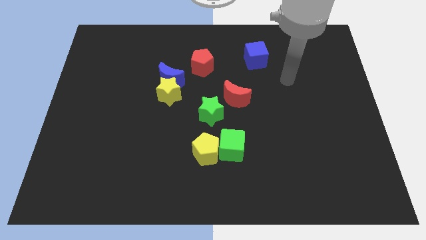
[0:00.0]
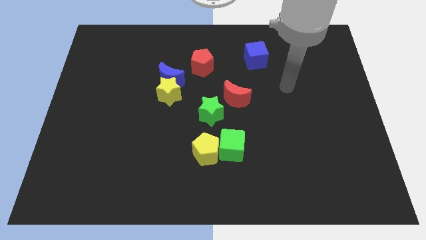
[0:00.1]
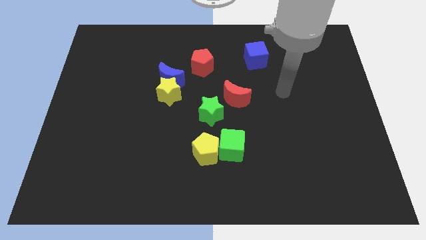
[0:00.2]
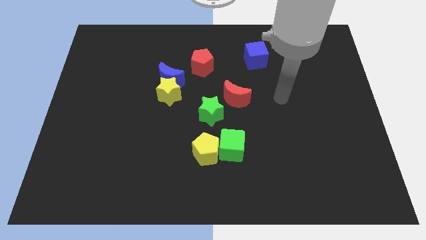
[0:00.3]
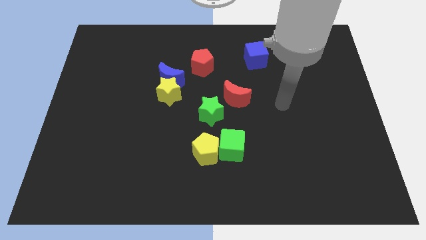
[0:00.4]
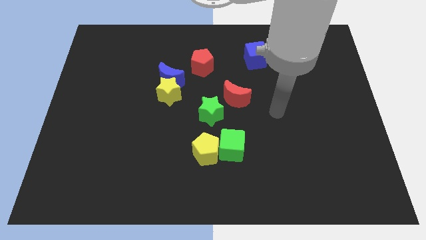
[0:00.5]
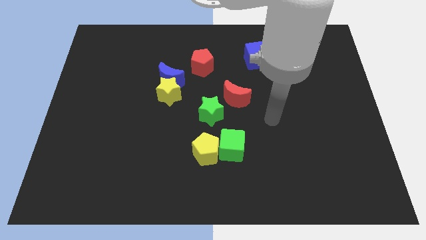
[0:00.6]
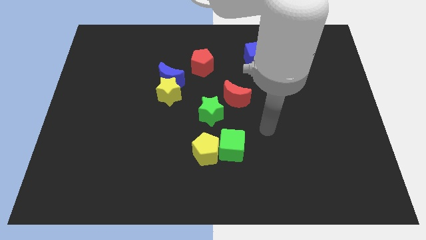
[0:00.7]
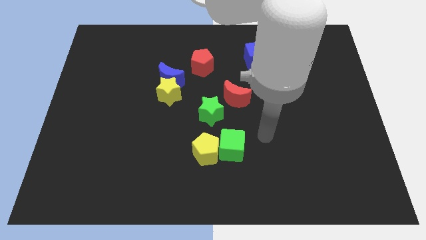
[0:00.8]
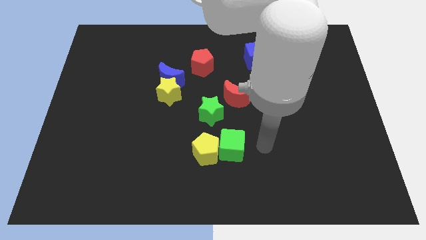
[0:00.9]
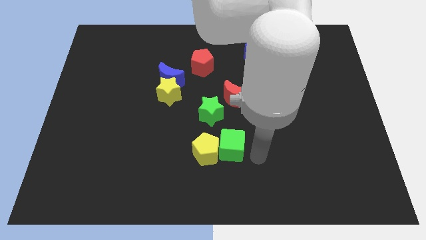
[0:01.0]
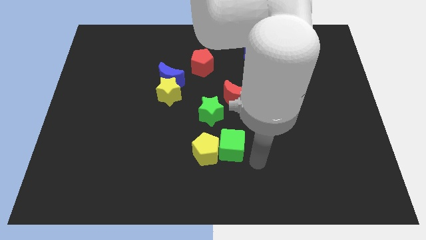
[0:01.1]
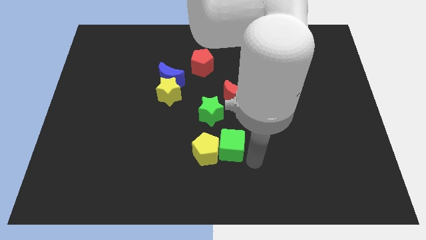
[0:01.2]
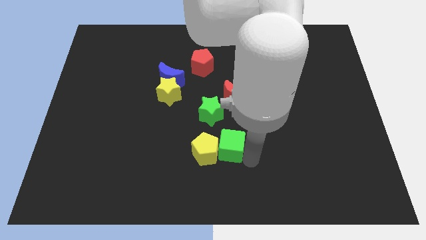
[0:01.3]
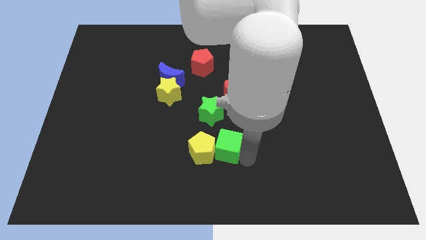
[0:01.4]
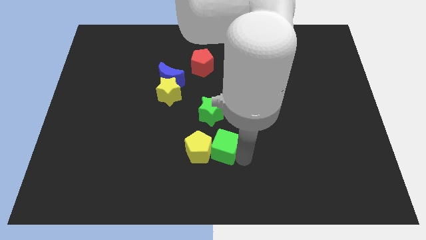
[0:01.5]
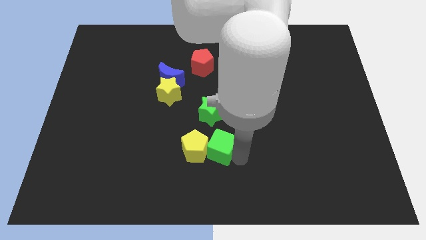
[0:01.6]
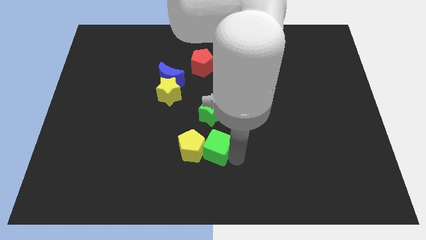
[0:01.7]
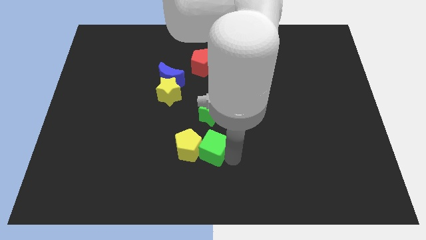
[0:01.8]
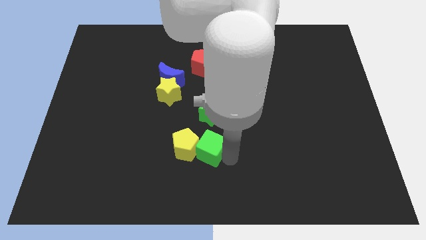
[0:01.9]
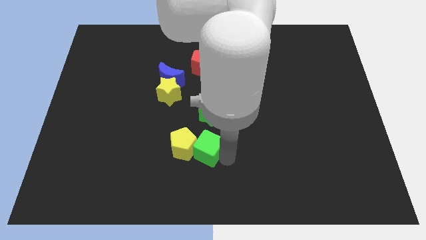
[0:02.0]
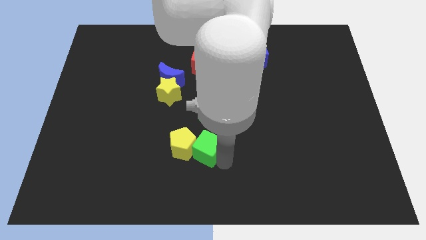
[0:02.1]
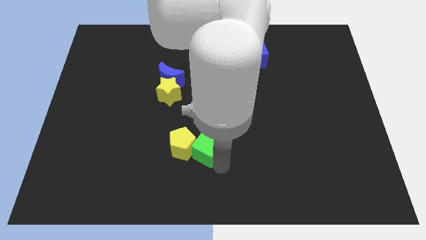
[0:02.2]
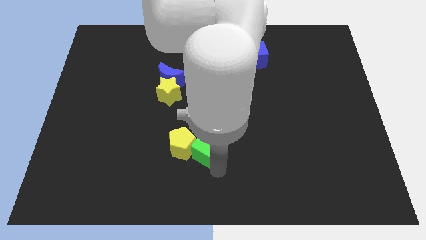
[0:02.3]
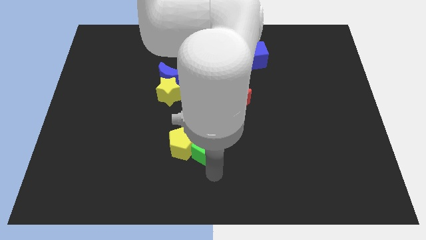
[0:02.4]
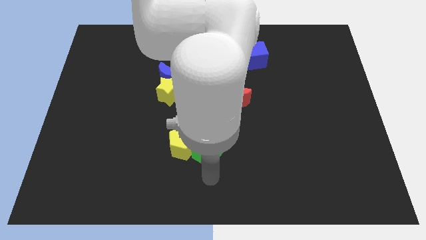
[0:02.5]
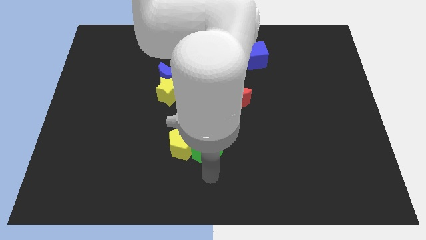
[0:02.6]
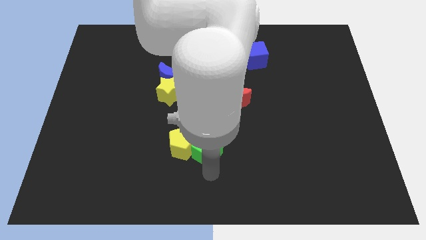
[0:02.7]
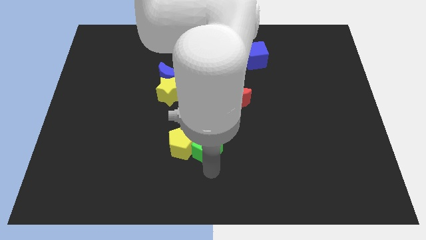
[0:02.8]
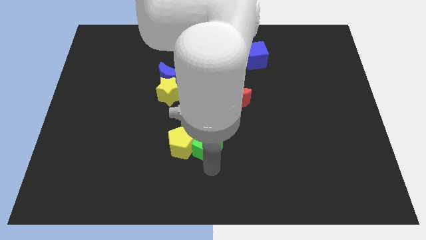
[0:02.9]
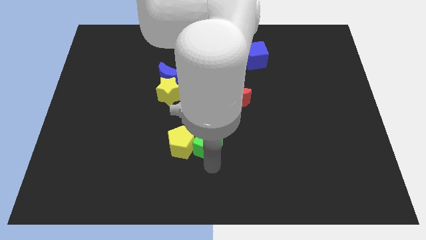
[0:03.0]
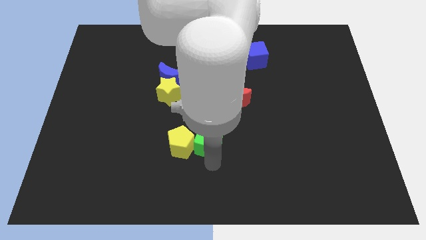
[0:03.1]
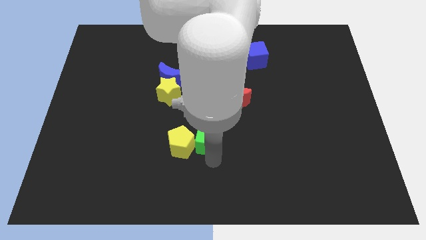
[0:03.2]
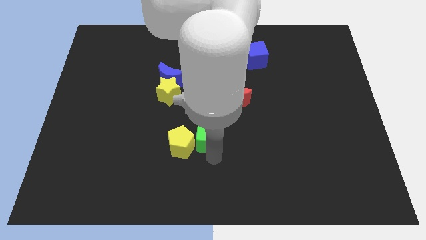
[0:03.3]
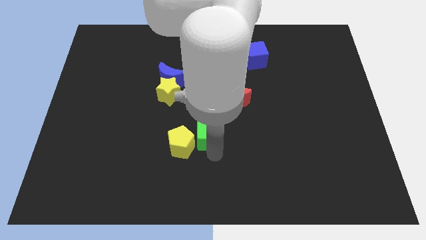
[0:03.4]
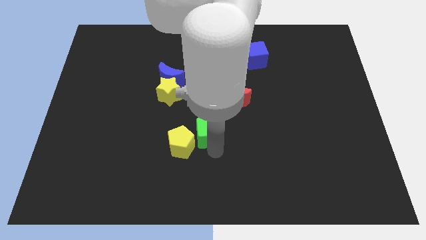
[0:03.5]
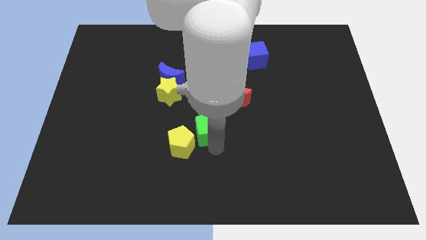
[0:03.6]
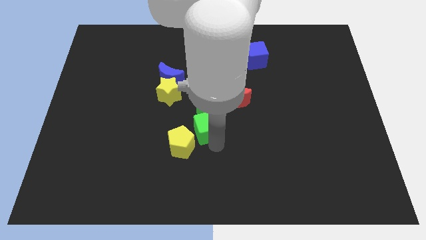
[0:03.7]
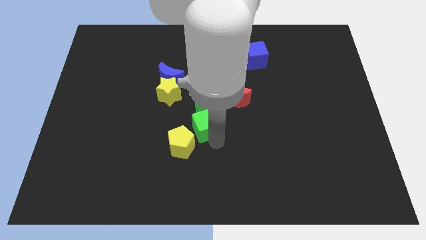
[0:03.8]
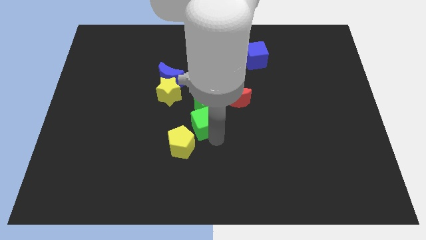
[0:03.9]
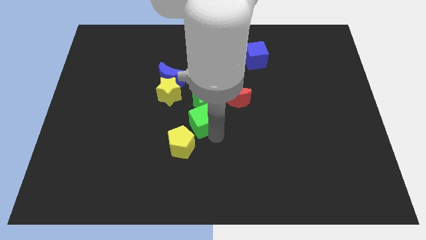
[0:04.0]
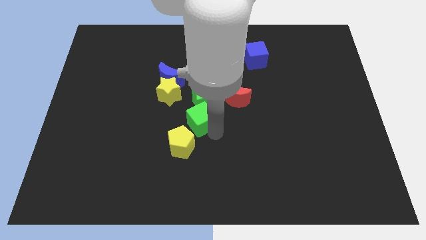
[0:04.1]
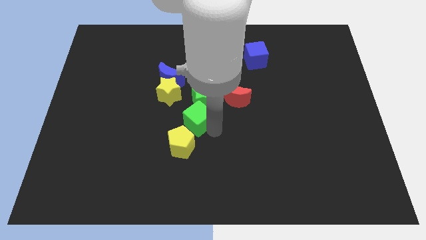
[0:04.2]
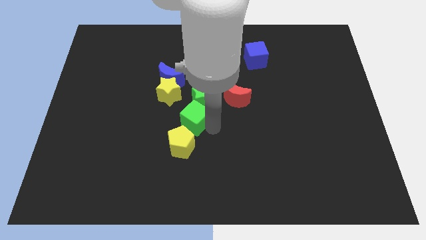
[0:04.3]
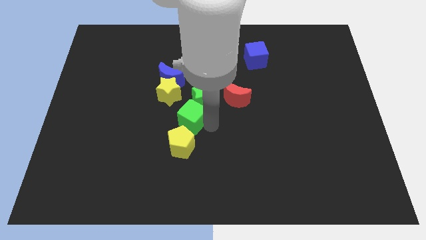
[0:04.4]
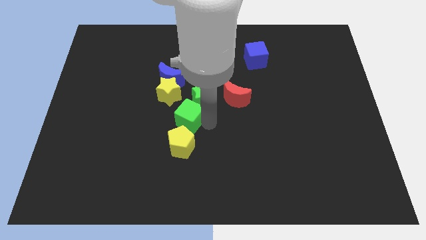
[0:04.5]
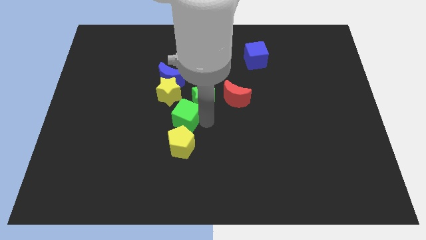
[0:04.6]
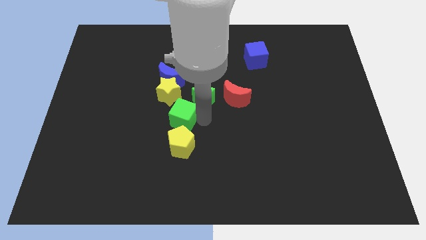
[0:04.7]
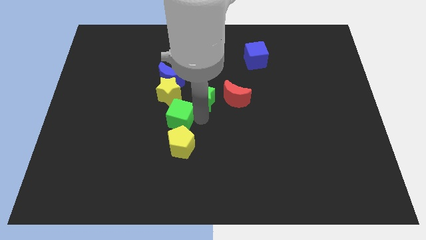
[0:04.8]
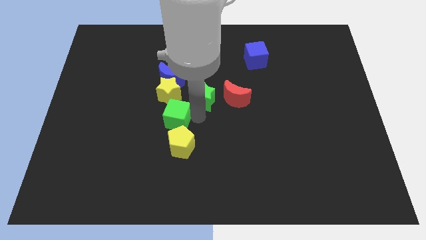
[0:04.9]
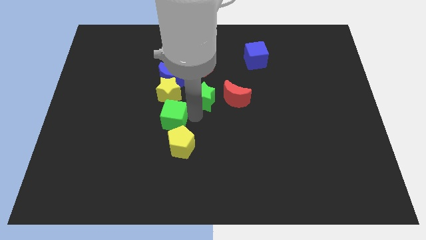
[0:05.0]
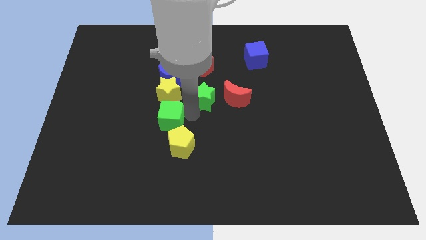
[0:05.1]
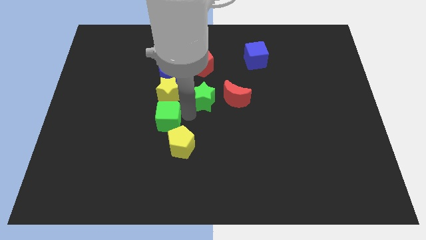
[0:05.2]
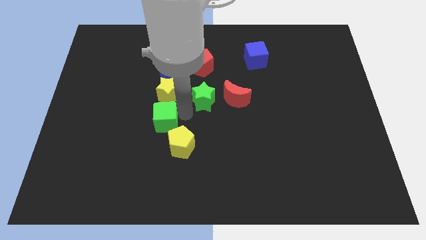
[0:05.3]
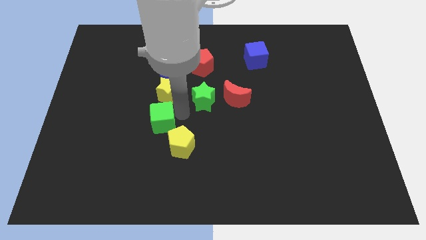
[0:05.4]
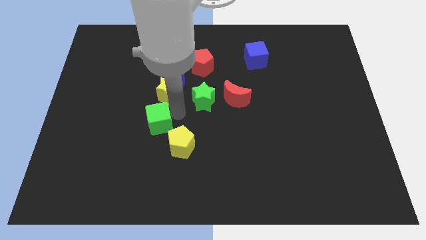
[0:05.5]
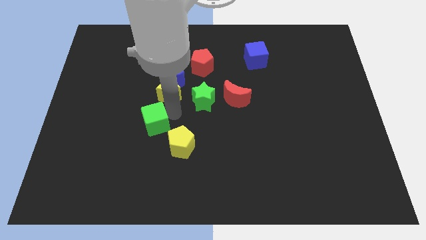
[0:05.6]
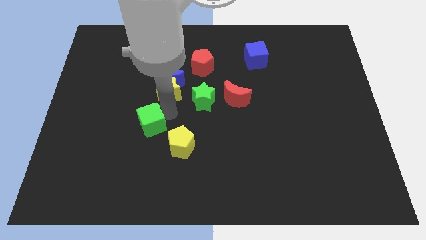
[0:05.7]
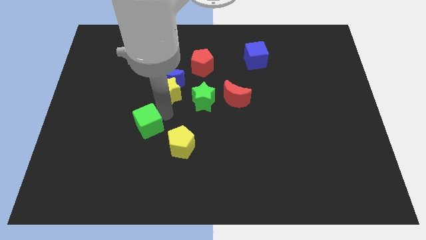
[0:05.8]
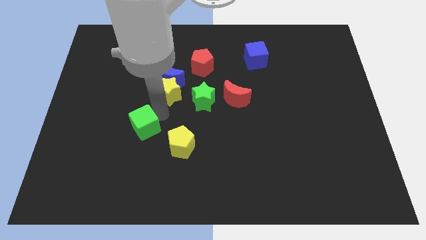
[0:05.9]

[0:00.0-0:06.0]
put the green cube to the left side of the yellow pentagon

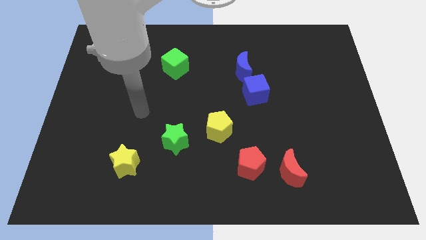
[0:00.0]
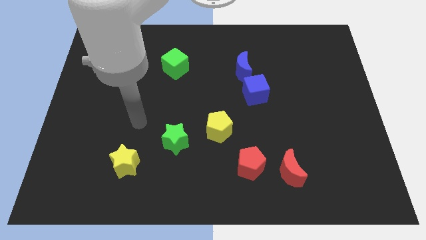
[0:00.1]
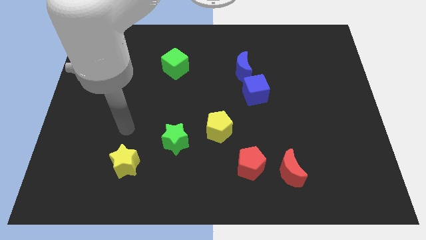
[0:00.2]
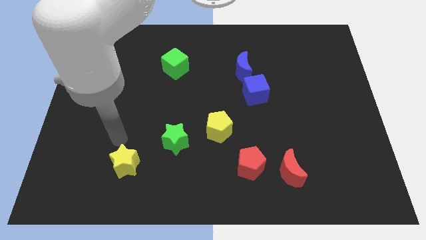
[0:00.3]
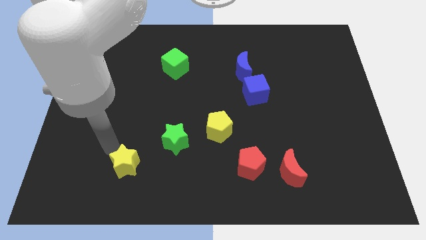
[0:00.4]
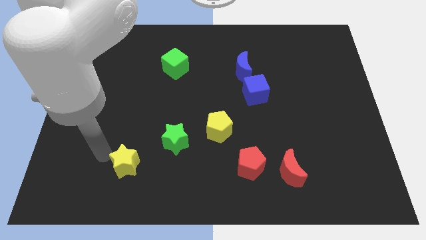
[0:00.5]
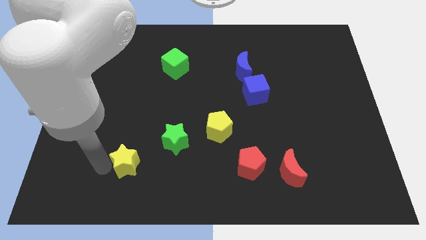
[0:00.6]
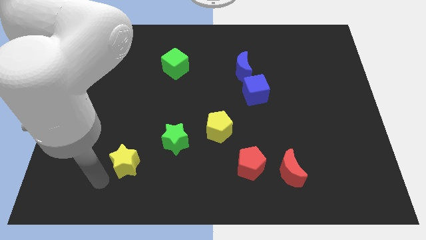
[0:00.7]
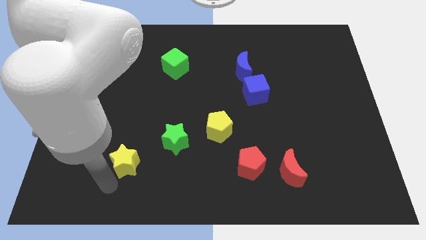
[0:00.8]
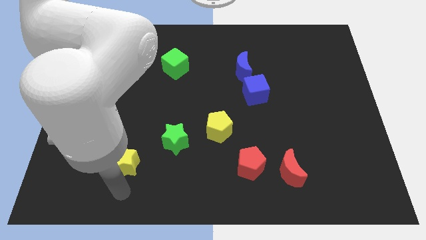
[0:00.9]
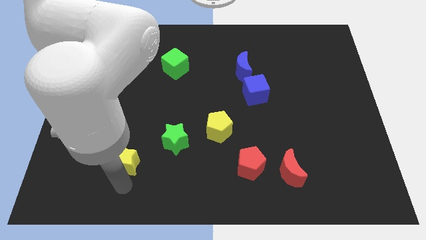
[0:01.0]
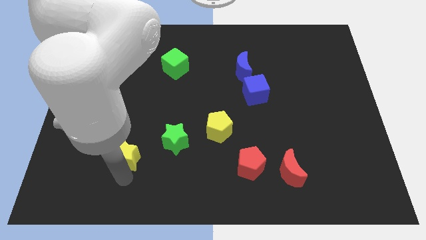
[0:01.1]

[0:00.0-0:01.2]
slide the yellow star just left of the green star

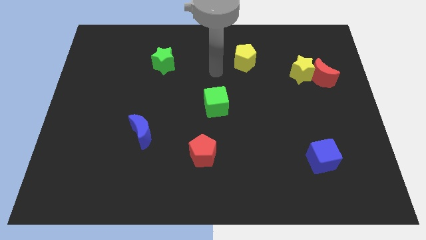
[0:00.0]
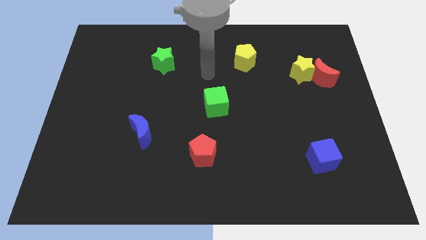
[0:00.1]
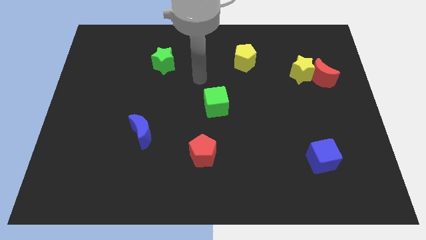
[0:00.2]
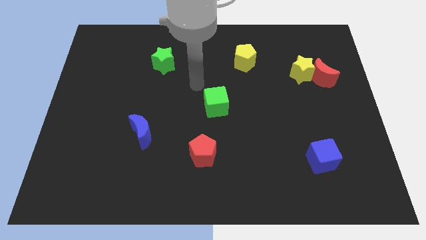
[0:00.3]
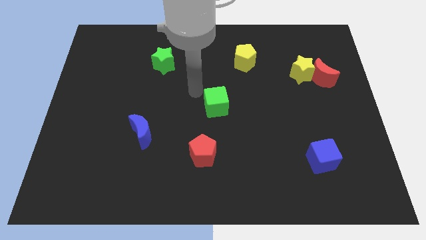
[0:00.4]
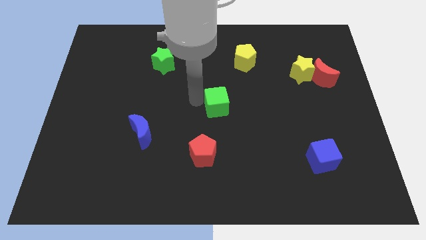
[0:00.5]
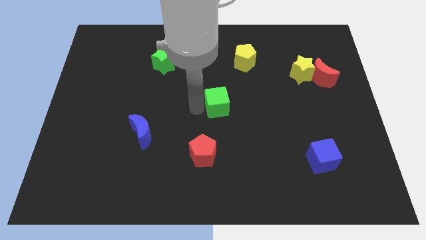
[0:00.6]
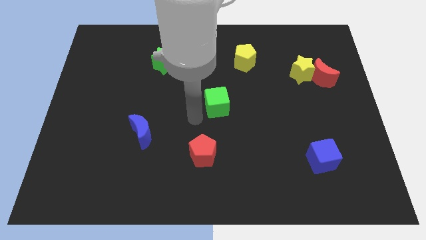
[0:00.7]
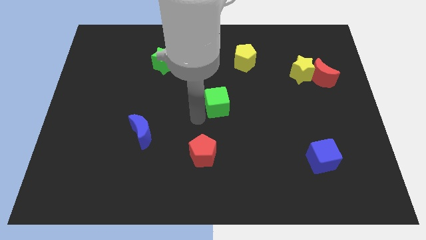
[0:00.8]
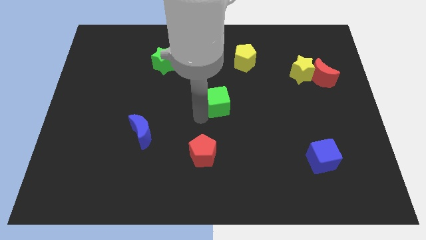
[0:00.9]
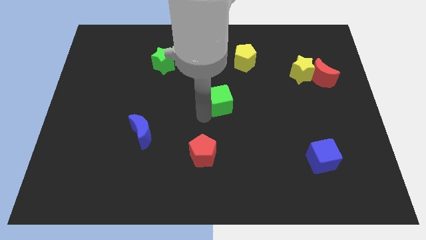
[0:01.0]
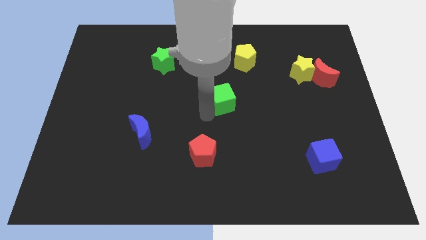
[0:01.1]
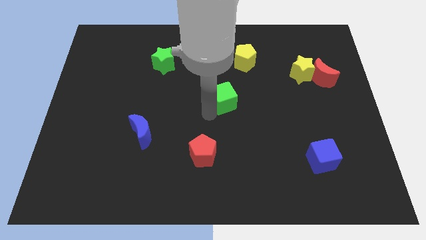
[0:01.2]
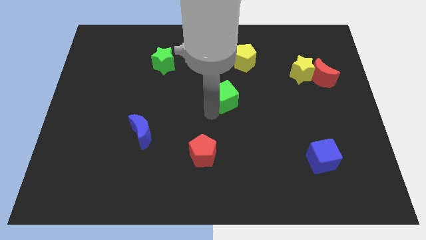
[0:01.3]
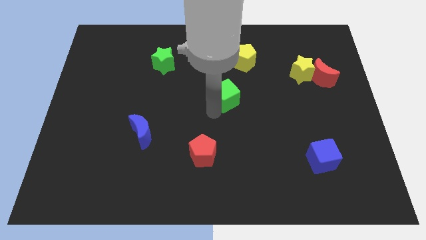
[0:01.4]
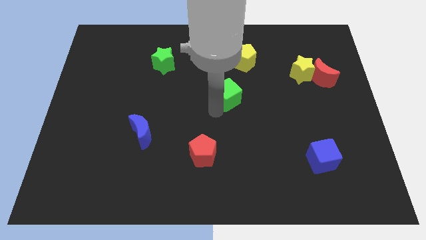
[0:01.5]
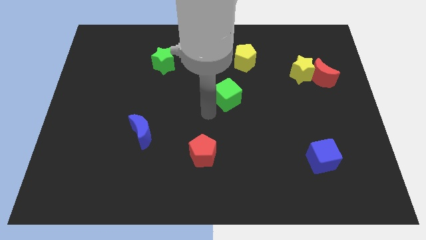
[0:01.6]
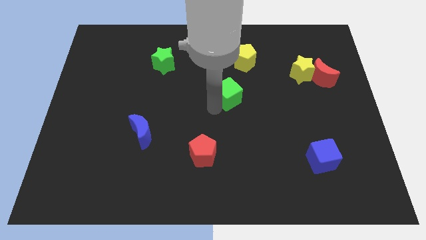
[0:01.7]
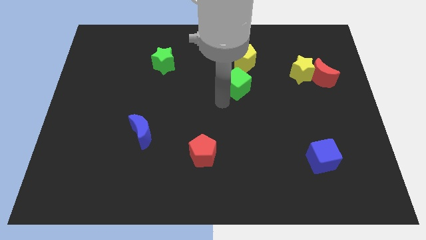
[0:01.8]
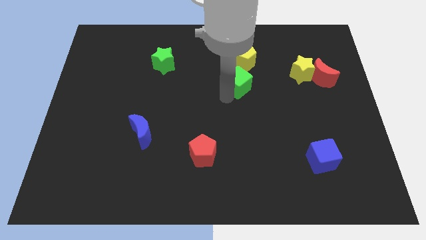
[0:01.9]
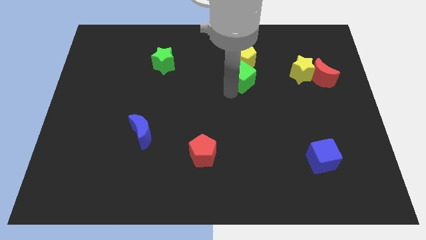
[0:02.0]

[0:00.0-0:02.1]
put the green cube left of the yellow star
